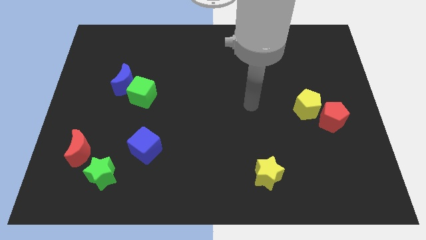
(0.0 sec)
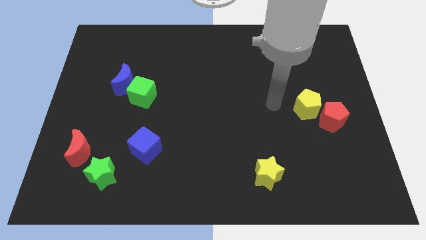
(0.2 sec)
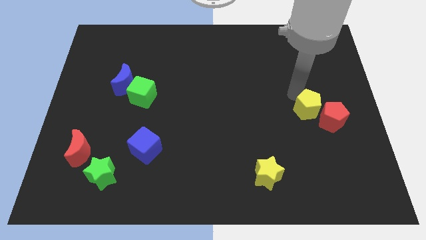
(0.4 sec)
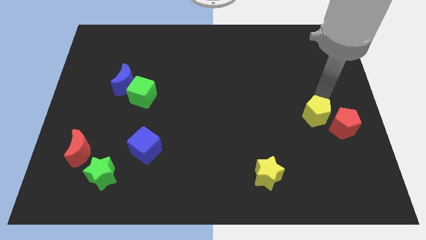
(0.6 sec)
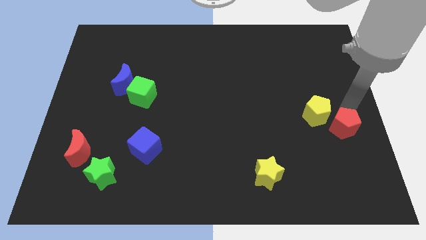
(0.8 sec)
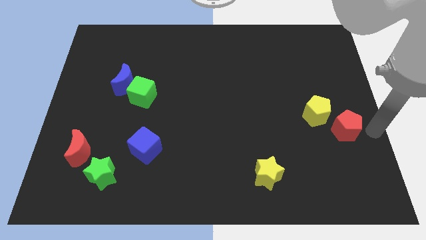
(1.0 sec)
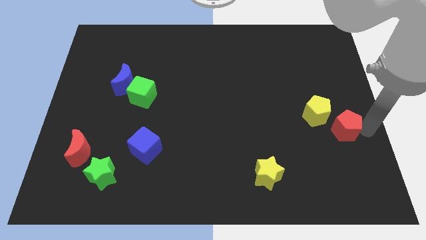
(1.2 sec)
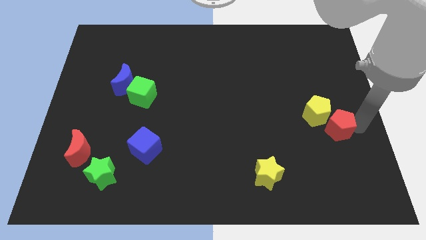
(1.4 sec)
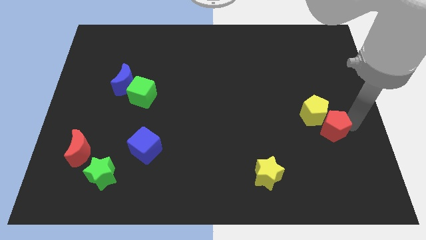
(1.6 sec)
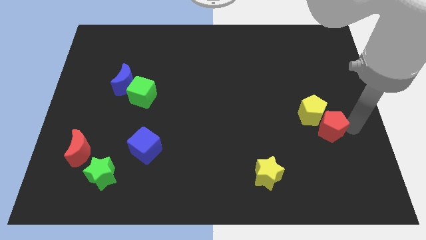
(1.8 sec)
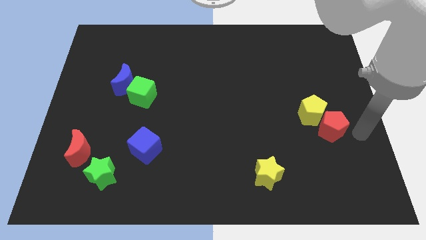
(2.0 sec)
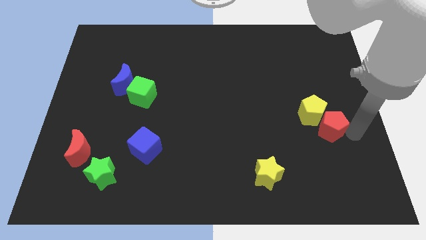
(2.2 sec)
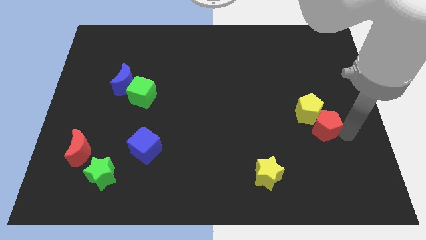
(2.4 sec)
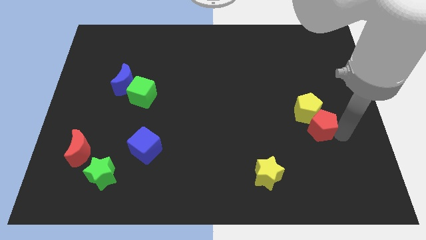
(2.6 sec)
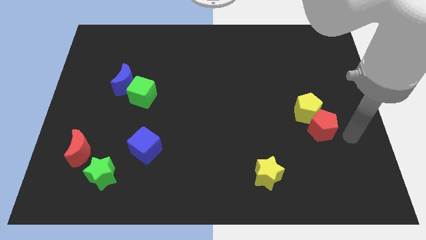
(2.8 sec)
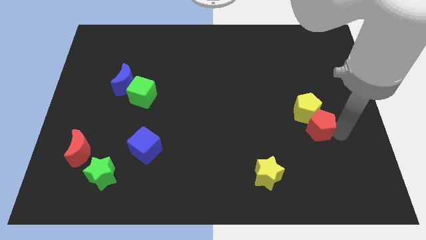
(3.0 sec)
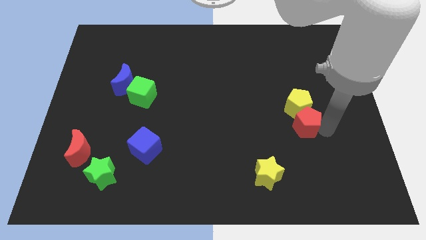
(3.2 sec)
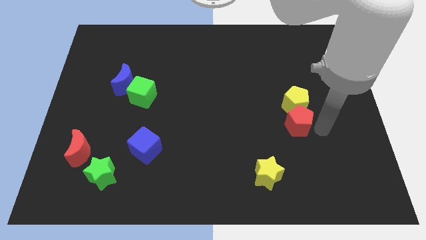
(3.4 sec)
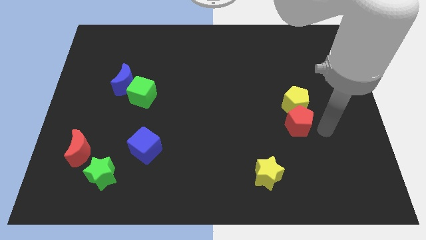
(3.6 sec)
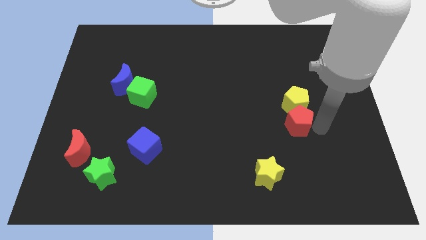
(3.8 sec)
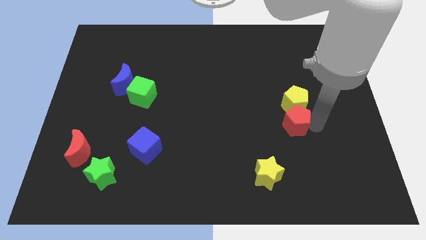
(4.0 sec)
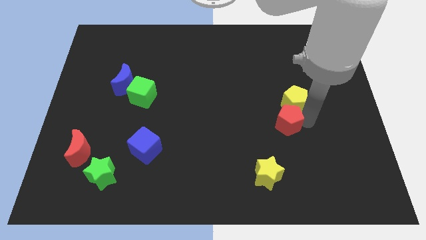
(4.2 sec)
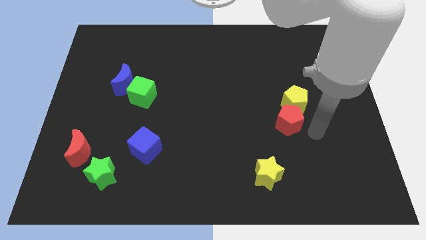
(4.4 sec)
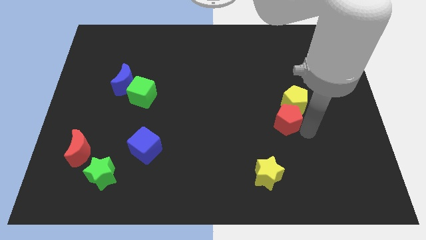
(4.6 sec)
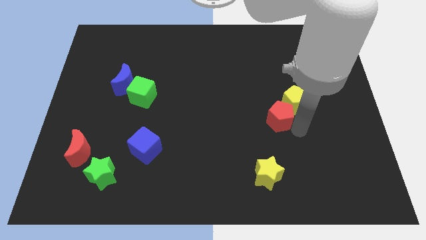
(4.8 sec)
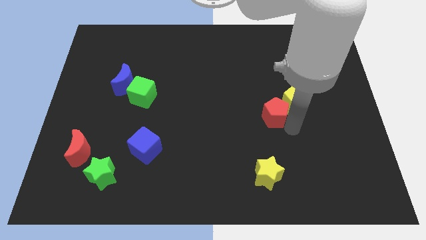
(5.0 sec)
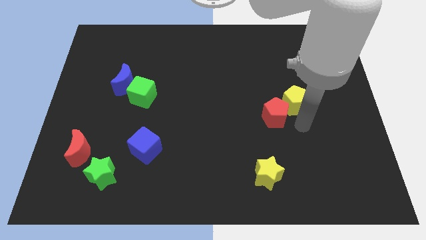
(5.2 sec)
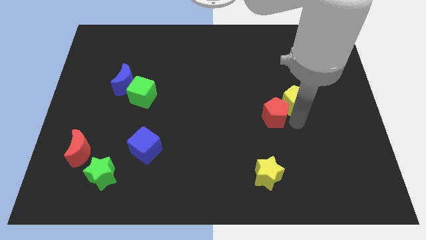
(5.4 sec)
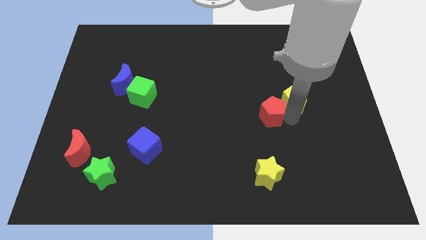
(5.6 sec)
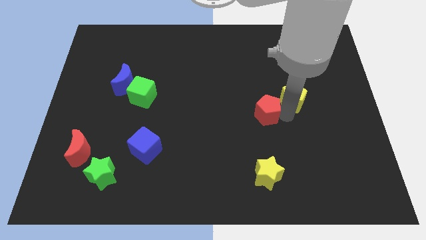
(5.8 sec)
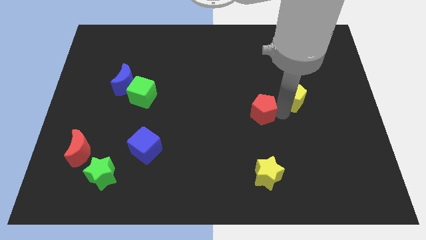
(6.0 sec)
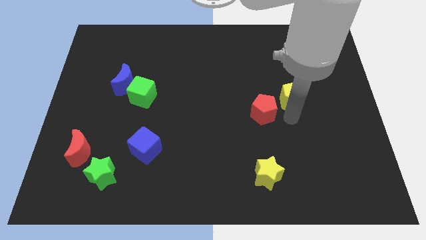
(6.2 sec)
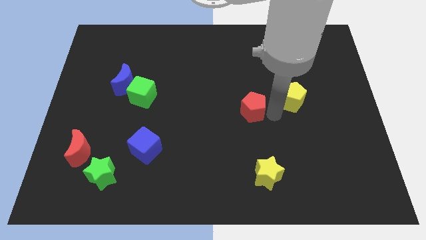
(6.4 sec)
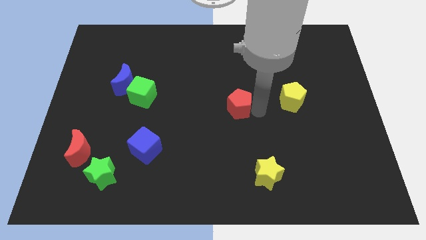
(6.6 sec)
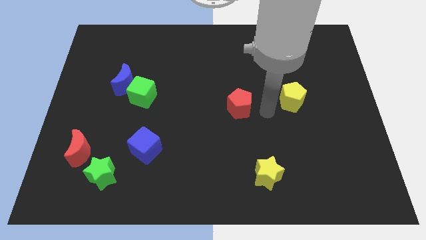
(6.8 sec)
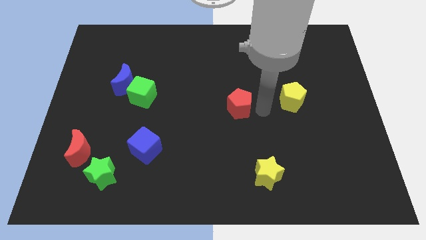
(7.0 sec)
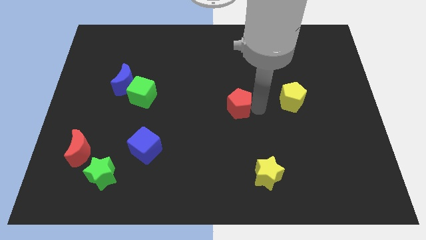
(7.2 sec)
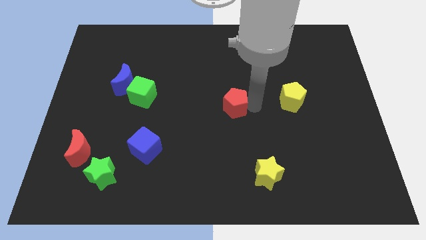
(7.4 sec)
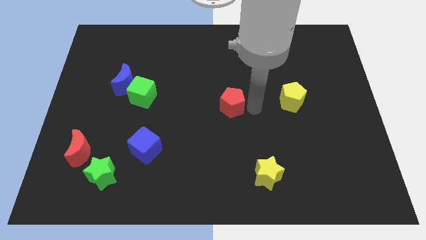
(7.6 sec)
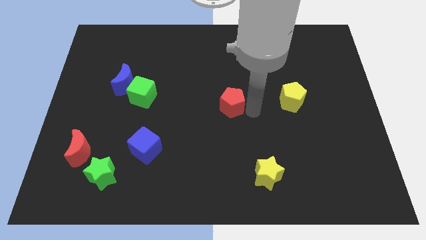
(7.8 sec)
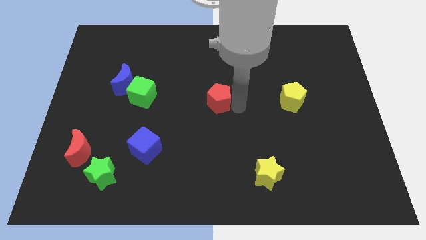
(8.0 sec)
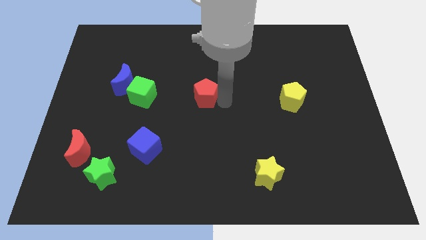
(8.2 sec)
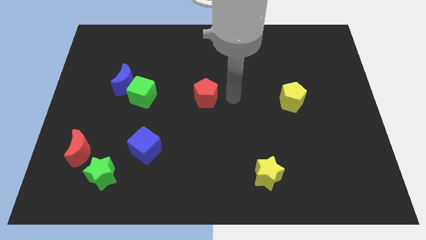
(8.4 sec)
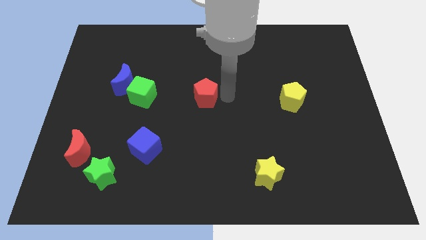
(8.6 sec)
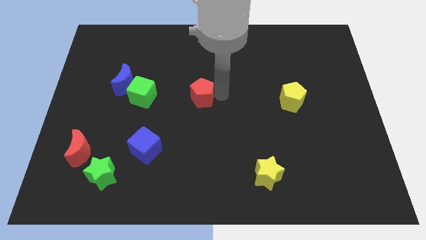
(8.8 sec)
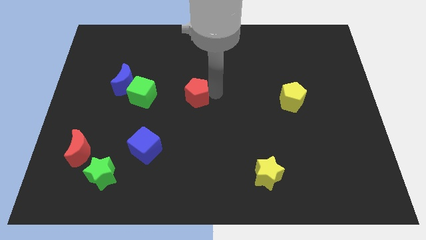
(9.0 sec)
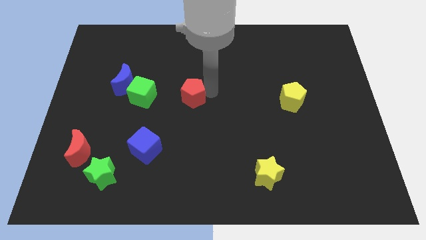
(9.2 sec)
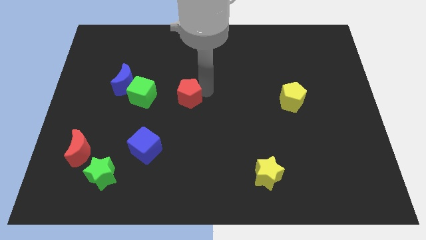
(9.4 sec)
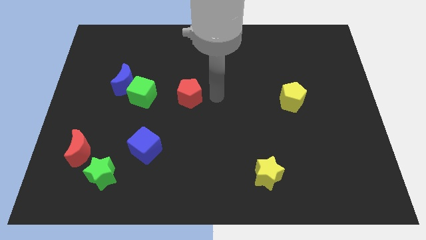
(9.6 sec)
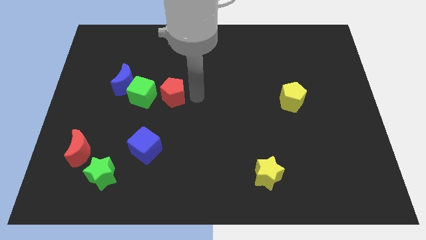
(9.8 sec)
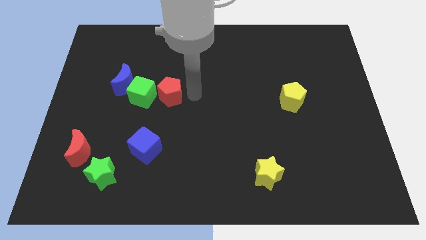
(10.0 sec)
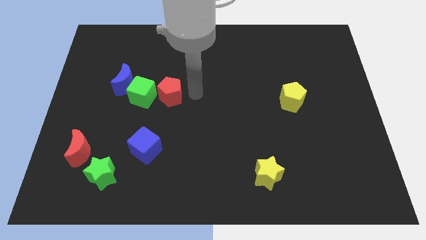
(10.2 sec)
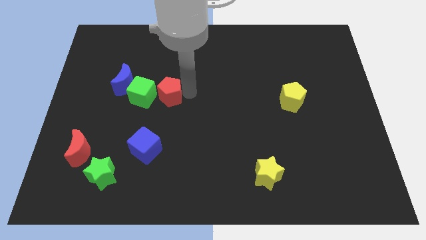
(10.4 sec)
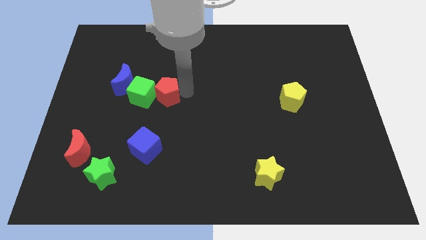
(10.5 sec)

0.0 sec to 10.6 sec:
push the red pentagon close to the green cube

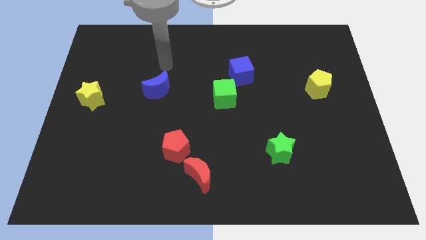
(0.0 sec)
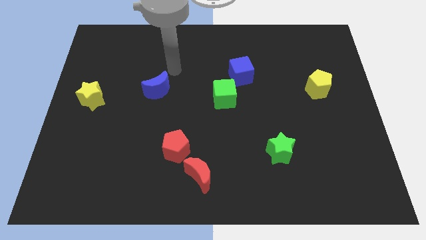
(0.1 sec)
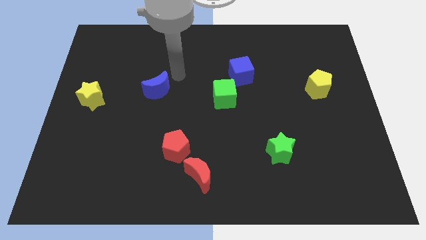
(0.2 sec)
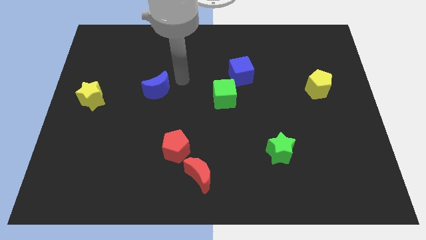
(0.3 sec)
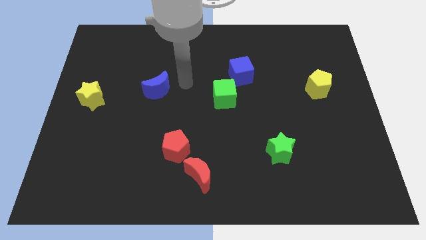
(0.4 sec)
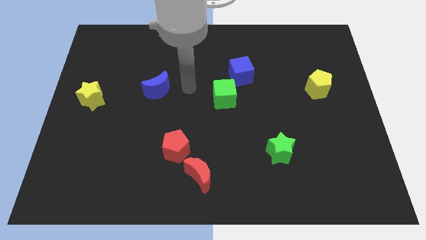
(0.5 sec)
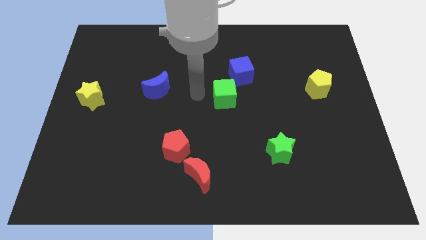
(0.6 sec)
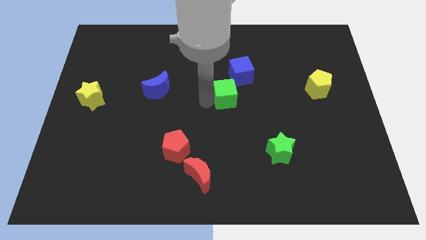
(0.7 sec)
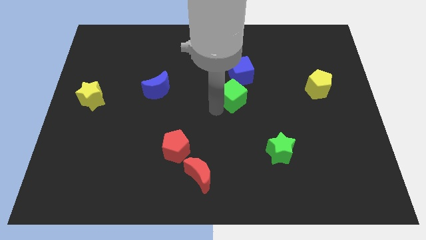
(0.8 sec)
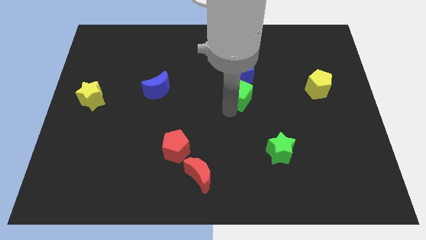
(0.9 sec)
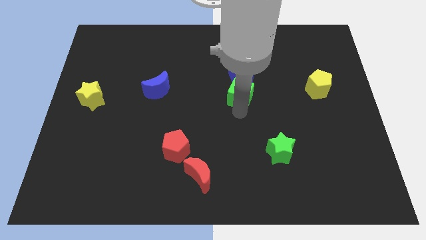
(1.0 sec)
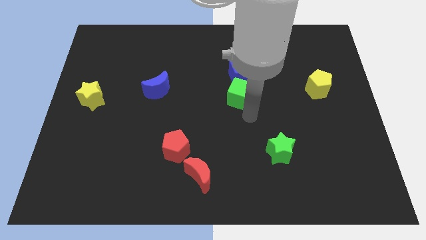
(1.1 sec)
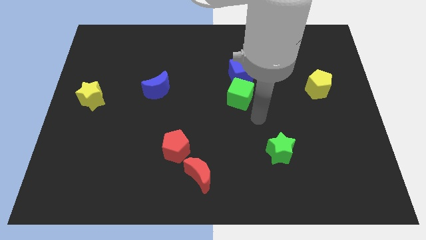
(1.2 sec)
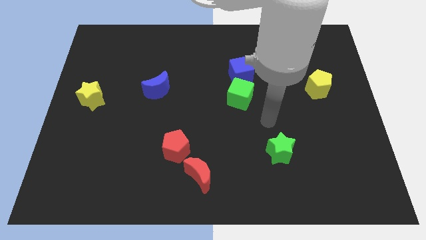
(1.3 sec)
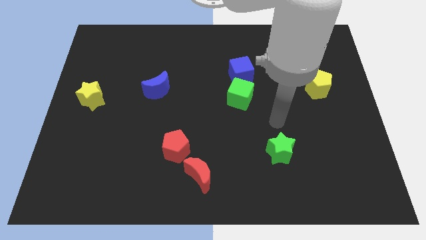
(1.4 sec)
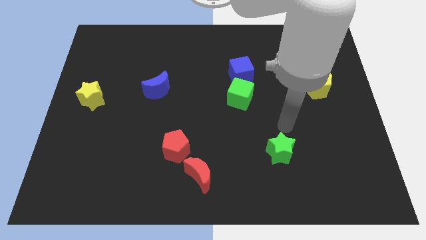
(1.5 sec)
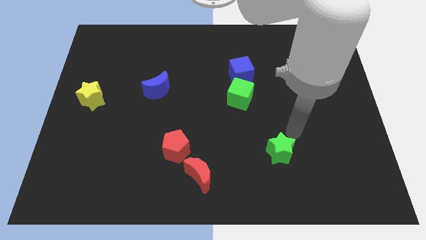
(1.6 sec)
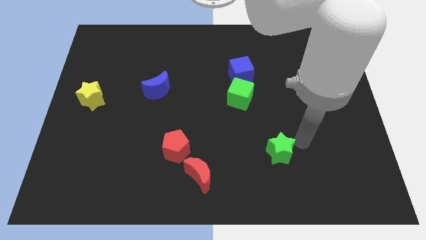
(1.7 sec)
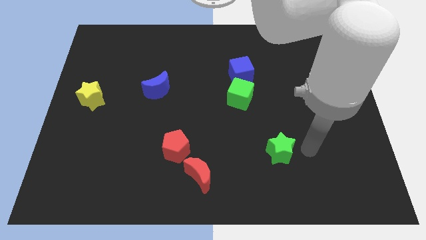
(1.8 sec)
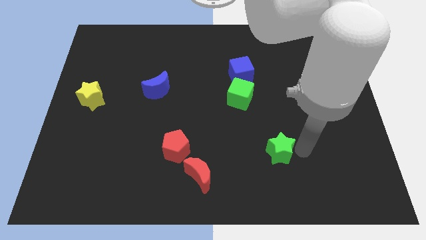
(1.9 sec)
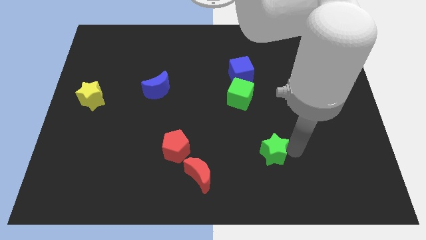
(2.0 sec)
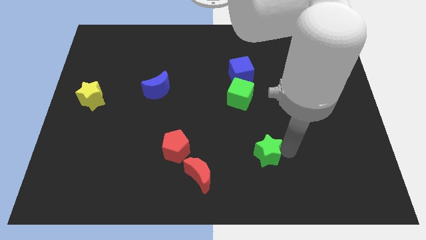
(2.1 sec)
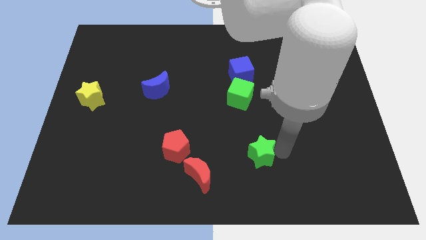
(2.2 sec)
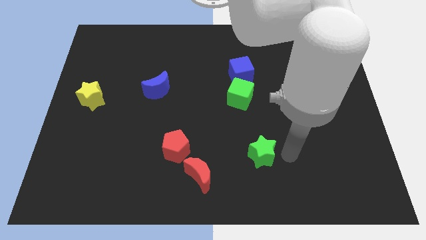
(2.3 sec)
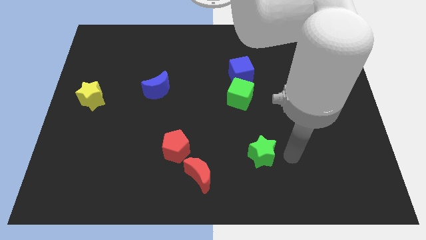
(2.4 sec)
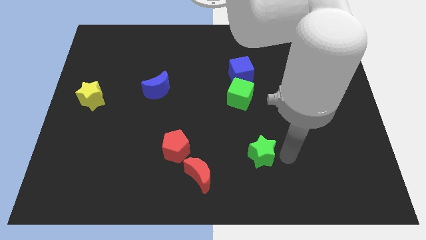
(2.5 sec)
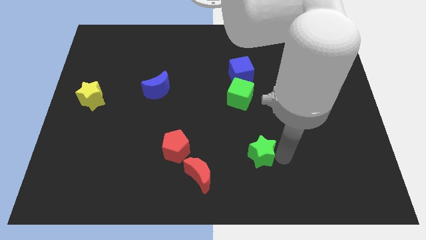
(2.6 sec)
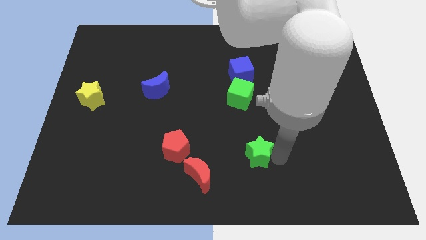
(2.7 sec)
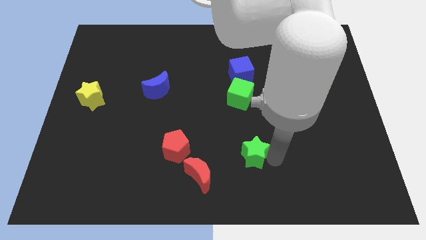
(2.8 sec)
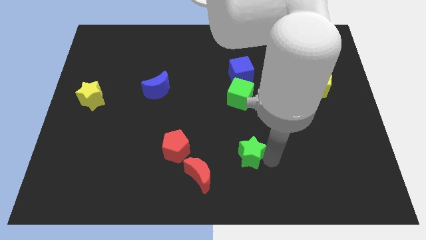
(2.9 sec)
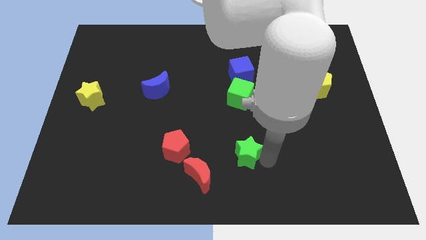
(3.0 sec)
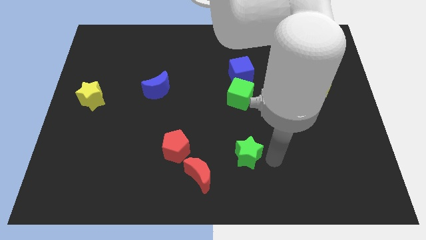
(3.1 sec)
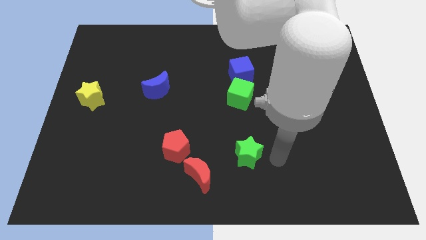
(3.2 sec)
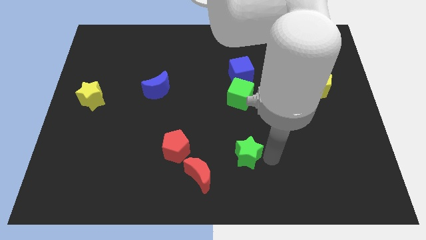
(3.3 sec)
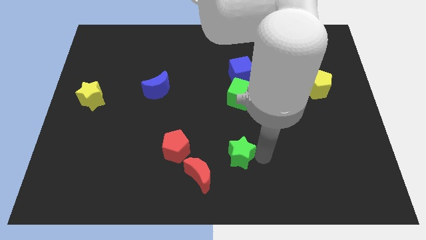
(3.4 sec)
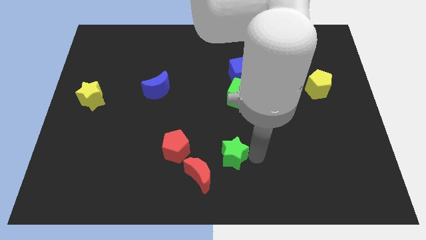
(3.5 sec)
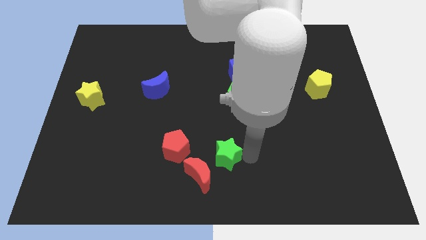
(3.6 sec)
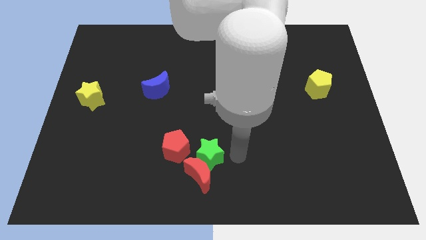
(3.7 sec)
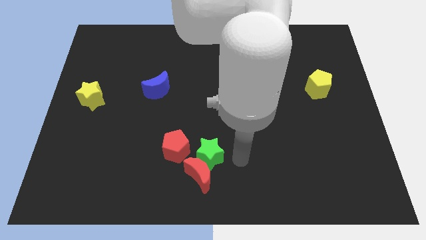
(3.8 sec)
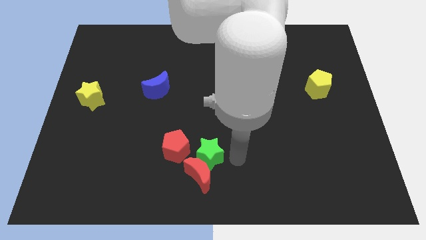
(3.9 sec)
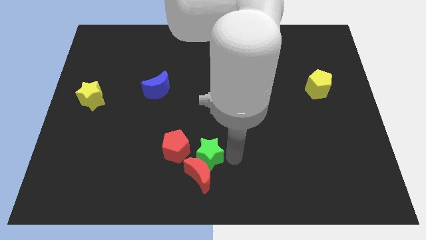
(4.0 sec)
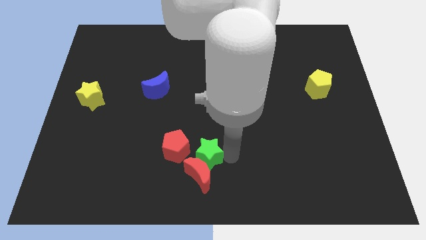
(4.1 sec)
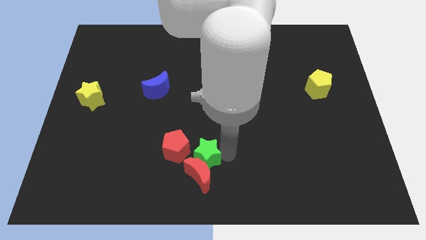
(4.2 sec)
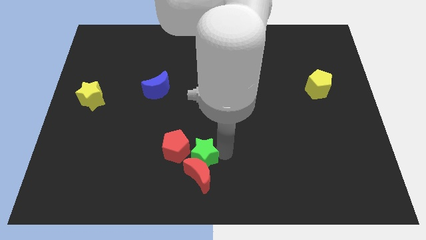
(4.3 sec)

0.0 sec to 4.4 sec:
put the green star to the red pentagon
